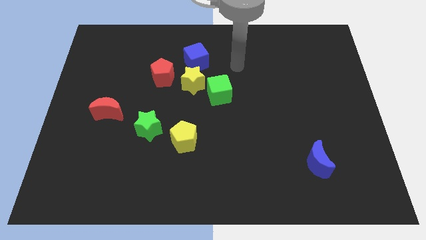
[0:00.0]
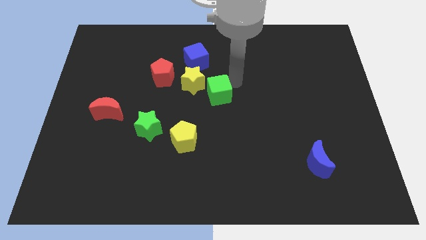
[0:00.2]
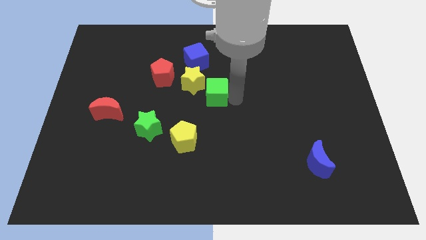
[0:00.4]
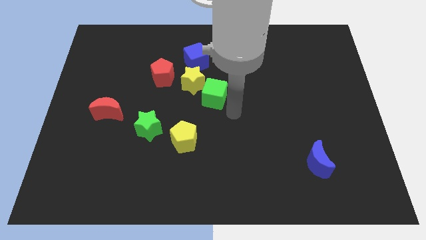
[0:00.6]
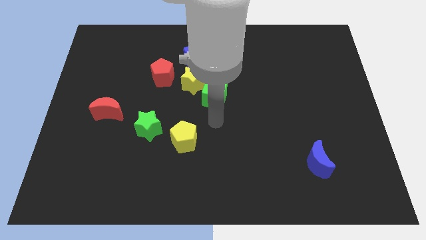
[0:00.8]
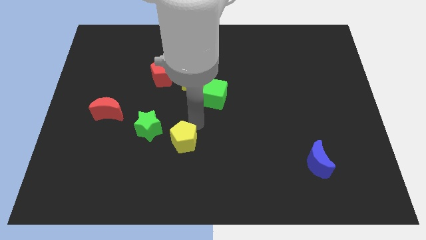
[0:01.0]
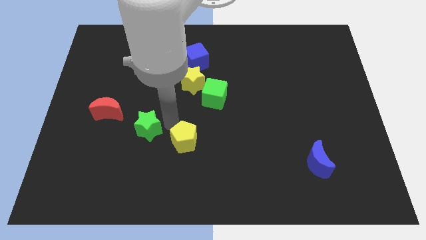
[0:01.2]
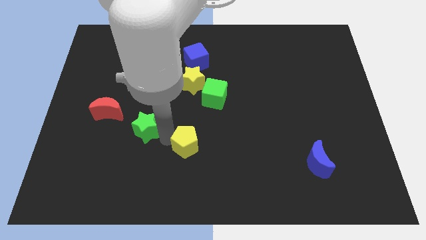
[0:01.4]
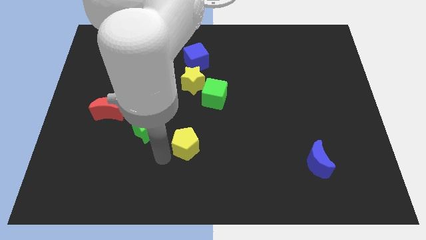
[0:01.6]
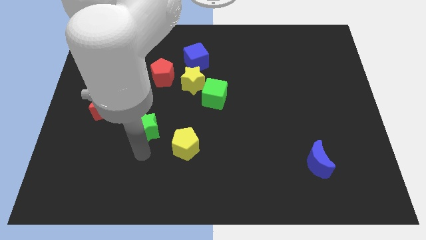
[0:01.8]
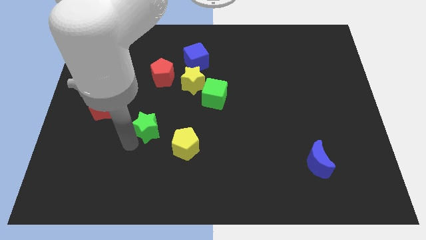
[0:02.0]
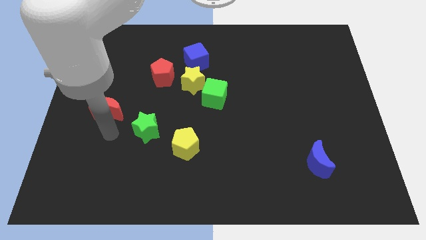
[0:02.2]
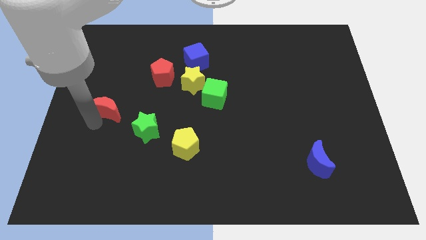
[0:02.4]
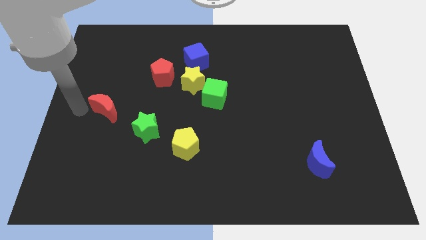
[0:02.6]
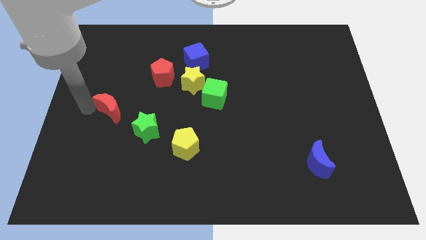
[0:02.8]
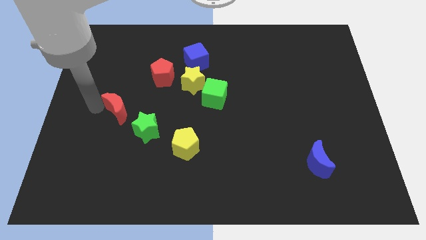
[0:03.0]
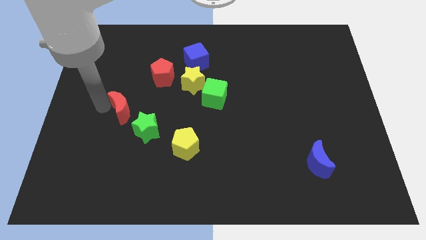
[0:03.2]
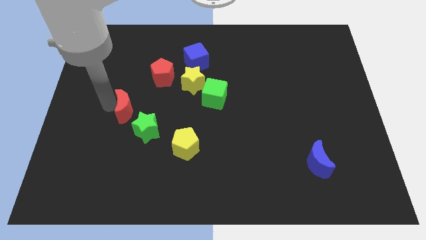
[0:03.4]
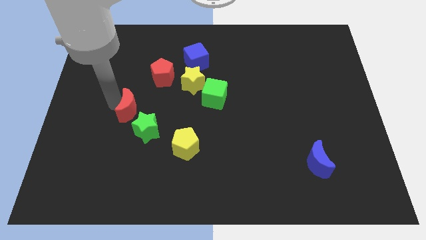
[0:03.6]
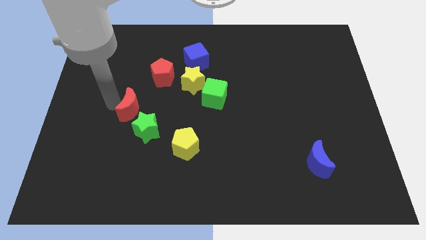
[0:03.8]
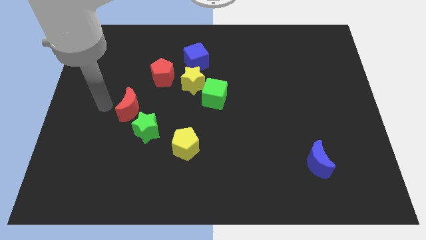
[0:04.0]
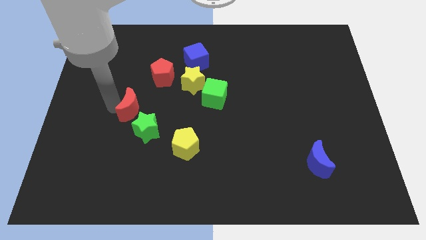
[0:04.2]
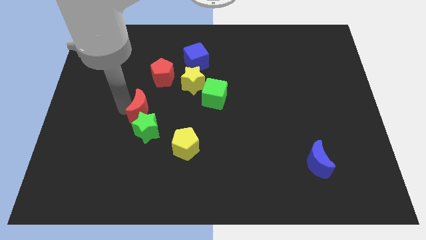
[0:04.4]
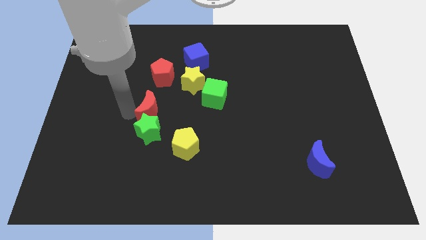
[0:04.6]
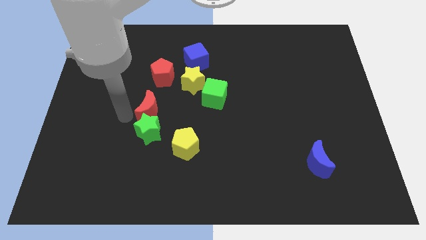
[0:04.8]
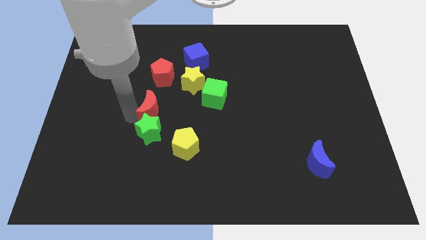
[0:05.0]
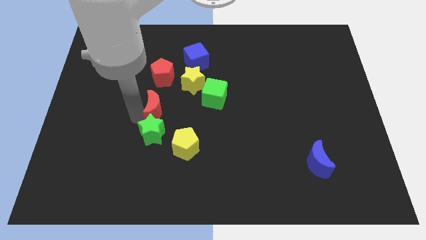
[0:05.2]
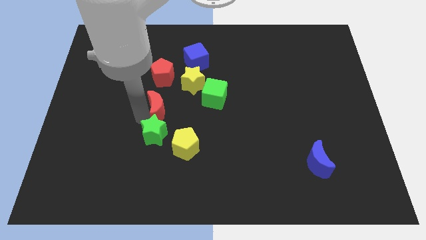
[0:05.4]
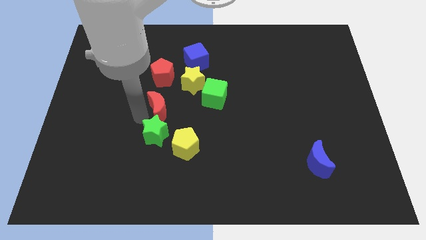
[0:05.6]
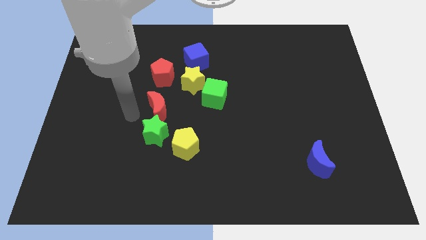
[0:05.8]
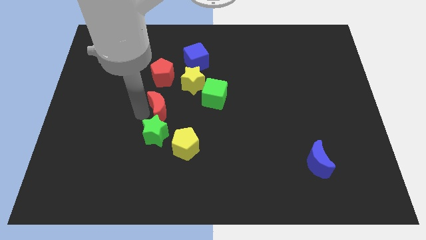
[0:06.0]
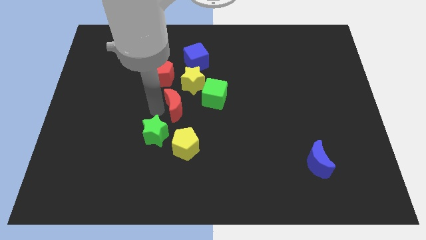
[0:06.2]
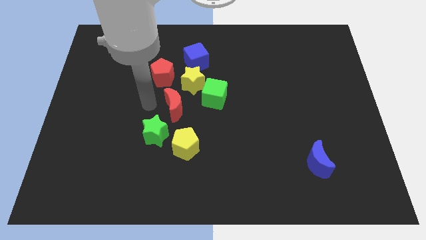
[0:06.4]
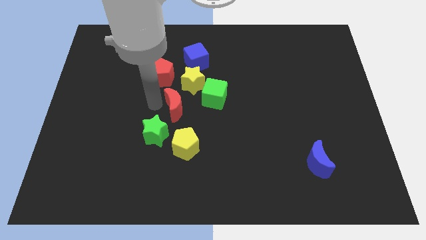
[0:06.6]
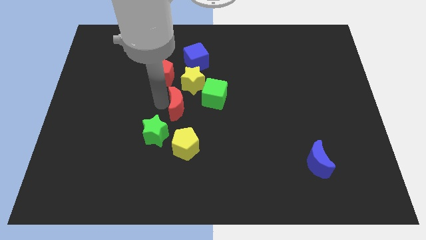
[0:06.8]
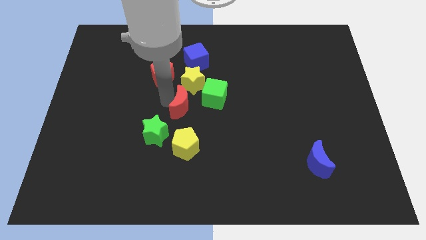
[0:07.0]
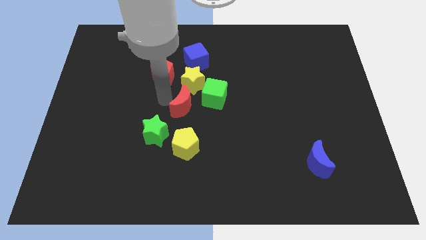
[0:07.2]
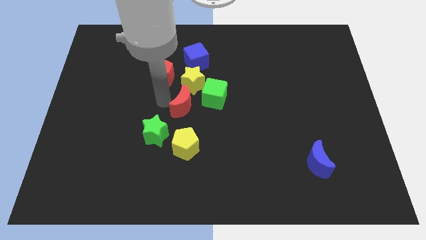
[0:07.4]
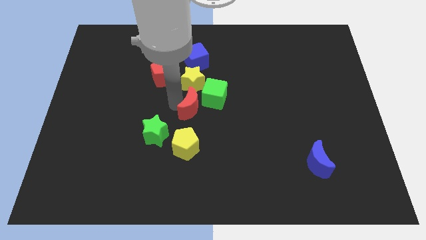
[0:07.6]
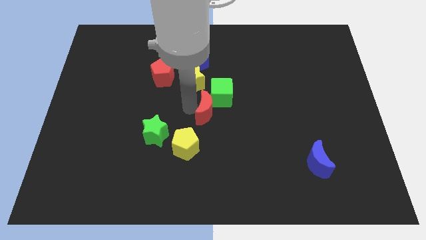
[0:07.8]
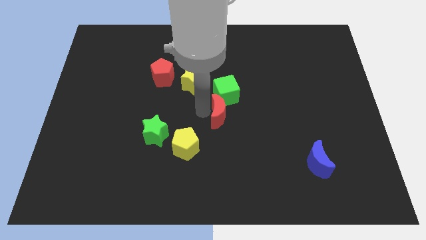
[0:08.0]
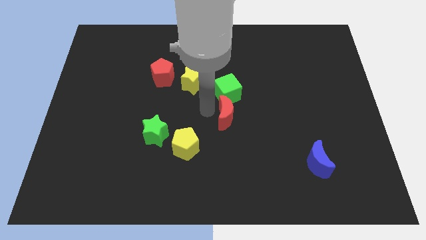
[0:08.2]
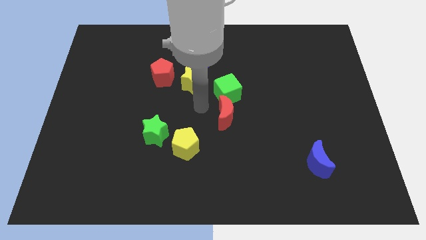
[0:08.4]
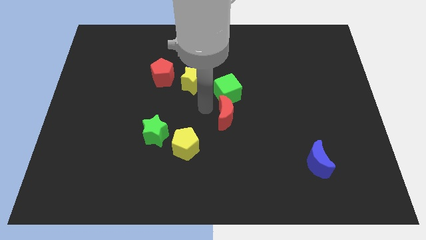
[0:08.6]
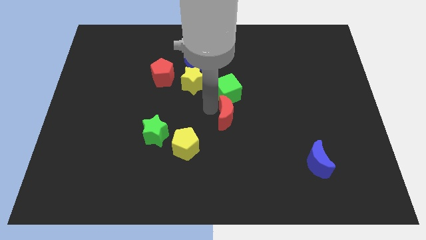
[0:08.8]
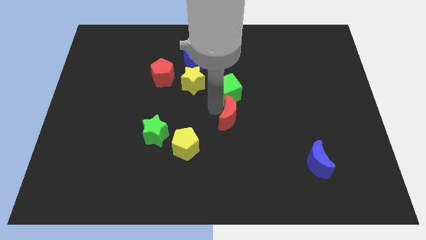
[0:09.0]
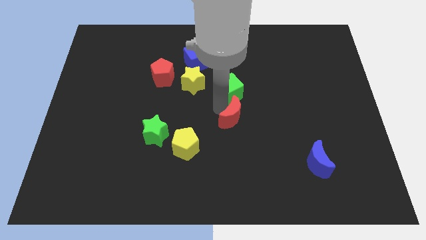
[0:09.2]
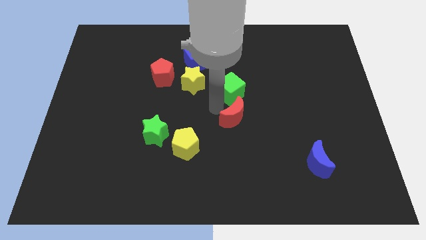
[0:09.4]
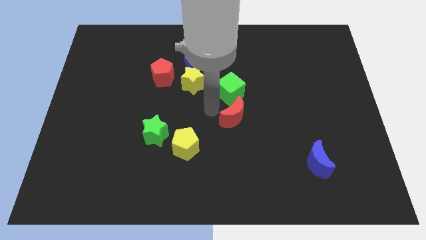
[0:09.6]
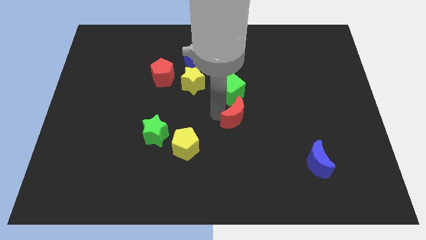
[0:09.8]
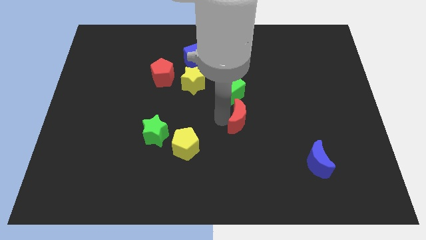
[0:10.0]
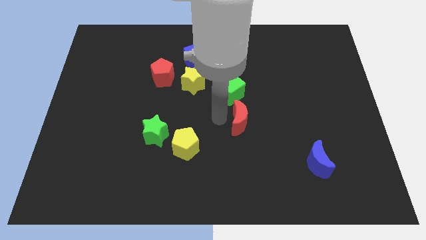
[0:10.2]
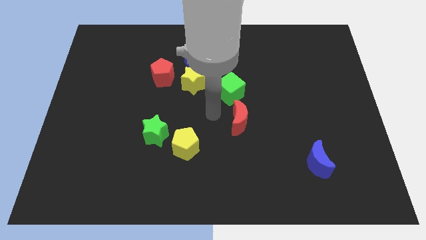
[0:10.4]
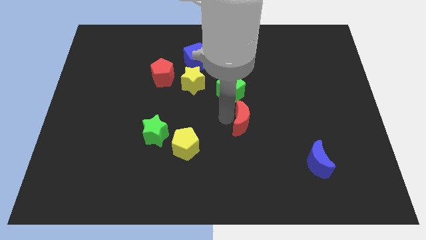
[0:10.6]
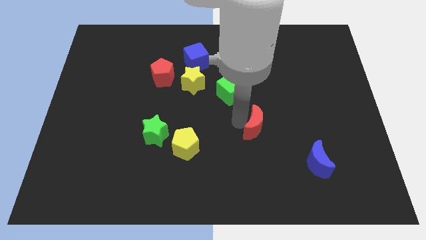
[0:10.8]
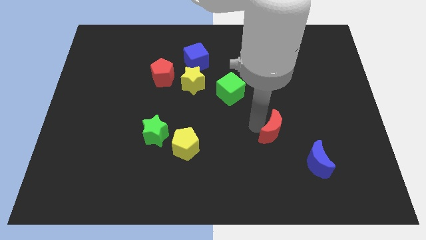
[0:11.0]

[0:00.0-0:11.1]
push the red moon diagonally up and to the left of the blue moon
